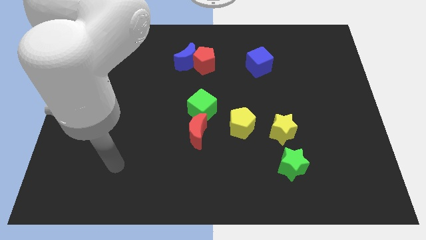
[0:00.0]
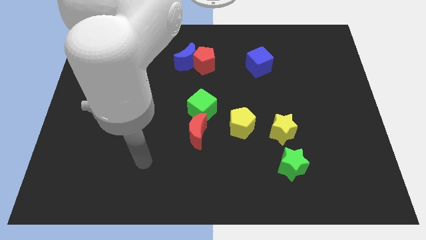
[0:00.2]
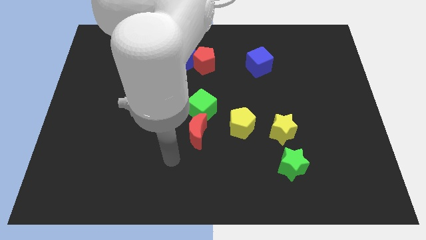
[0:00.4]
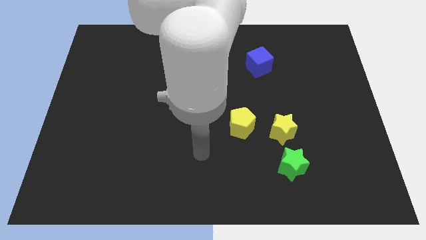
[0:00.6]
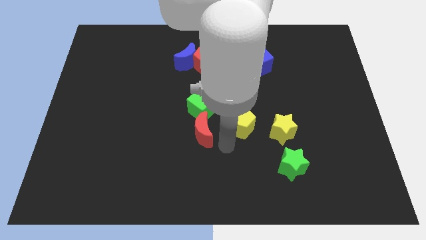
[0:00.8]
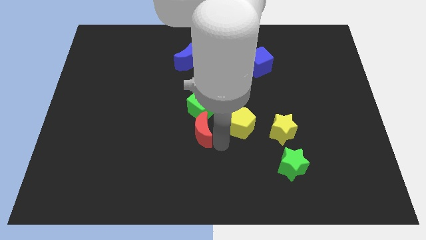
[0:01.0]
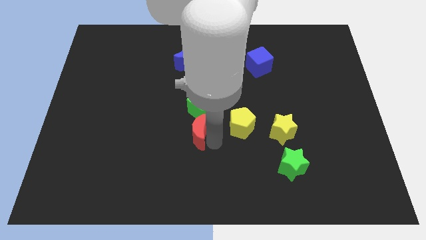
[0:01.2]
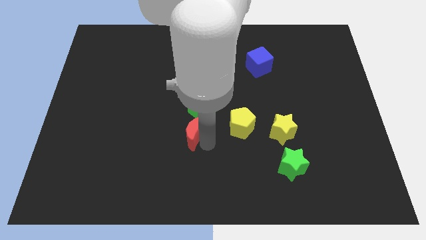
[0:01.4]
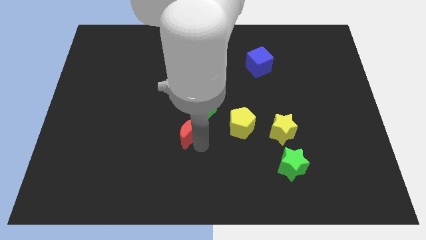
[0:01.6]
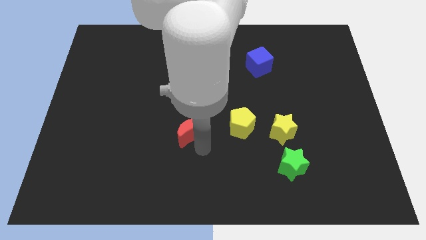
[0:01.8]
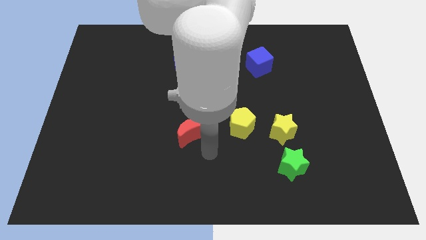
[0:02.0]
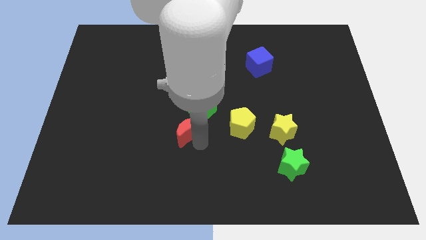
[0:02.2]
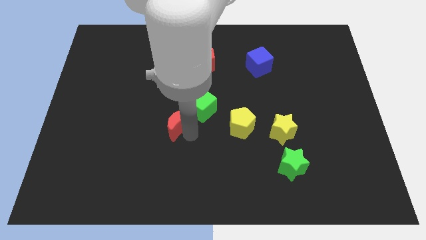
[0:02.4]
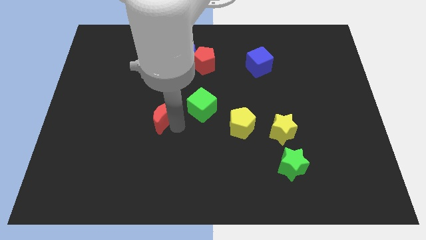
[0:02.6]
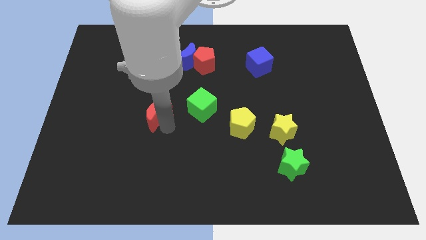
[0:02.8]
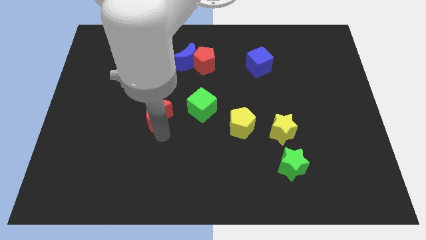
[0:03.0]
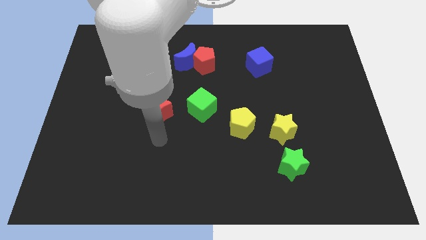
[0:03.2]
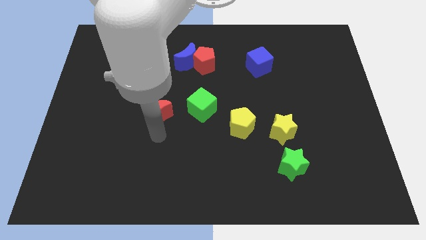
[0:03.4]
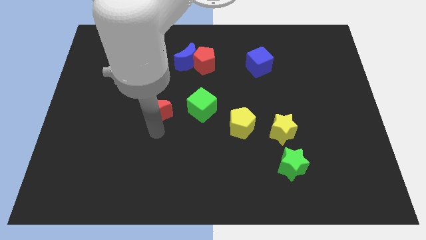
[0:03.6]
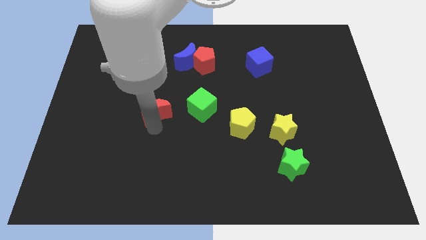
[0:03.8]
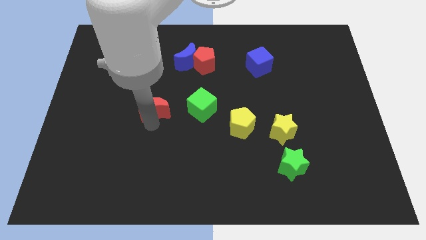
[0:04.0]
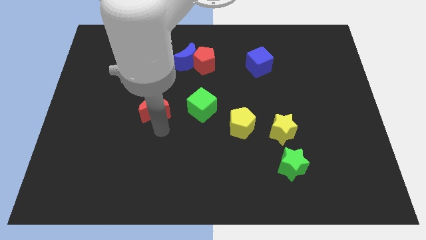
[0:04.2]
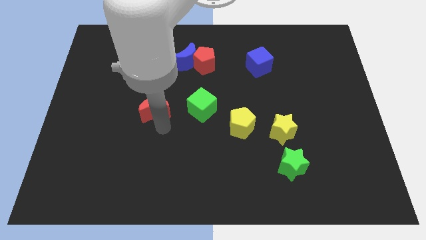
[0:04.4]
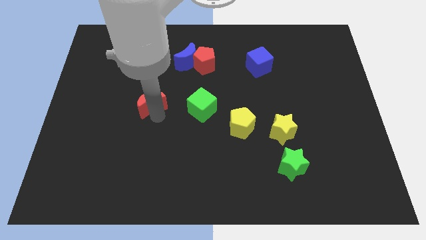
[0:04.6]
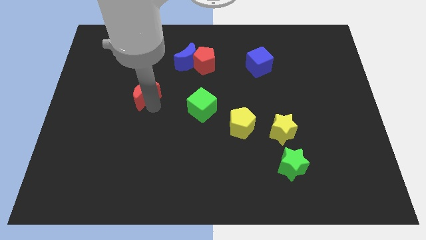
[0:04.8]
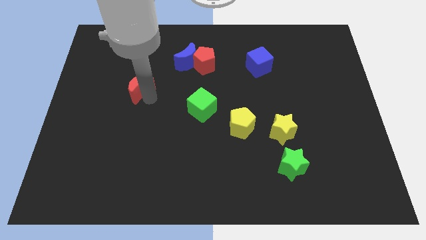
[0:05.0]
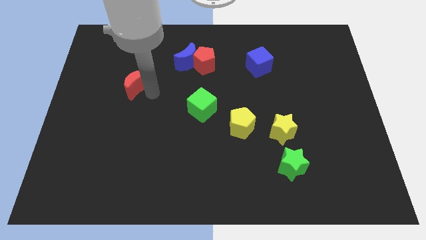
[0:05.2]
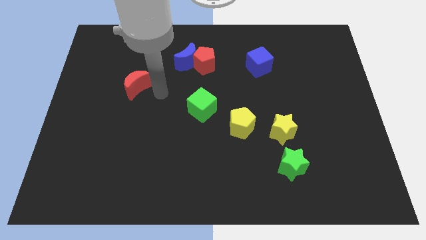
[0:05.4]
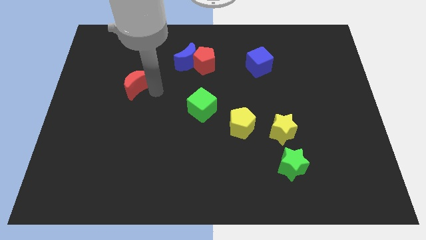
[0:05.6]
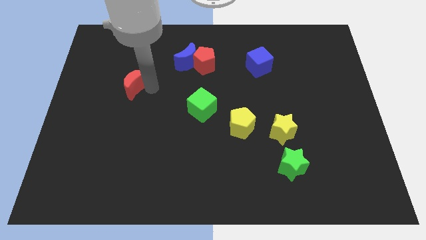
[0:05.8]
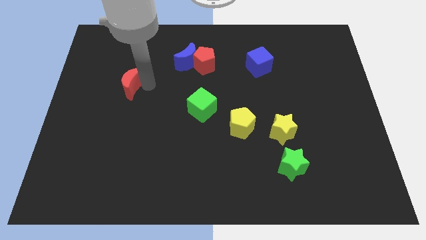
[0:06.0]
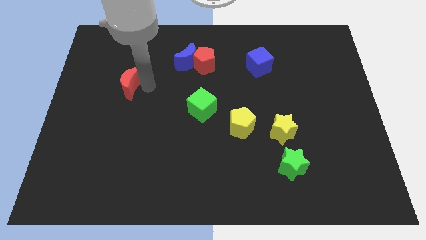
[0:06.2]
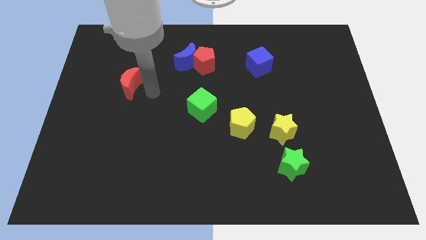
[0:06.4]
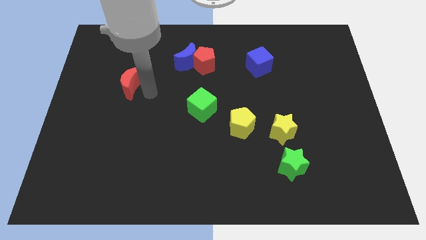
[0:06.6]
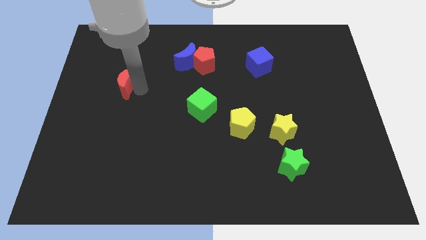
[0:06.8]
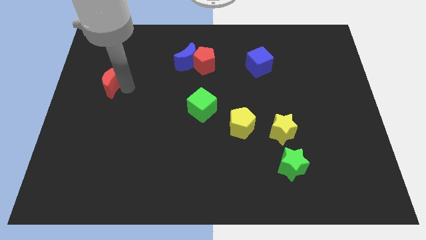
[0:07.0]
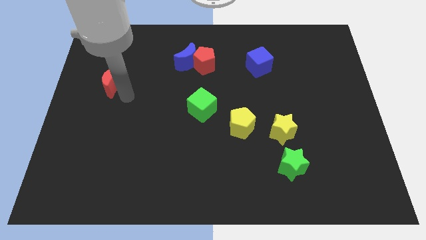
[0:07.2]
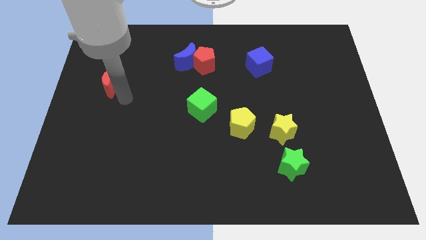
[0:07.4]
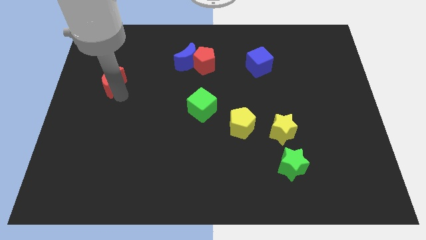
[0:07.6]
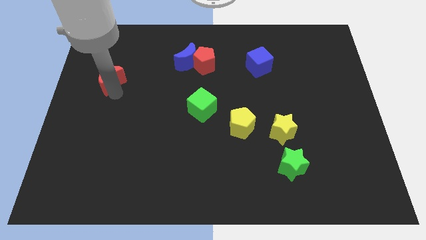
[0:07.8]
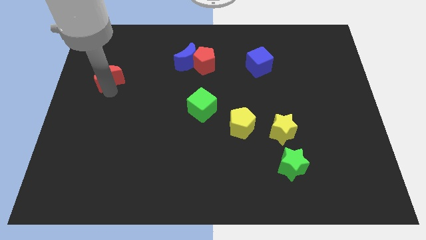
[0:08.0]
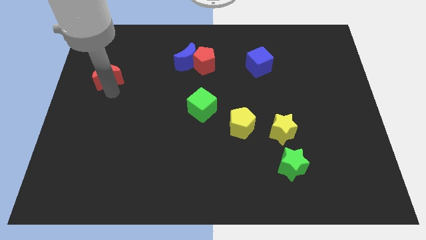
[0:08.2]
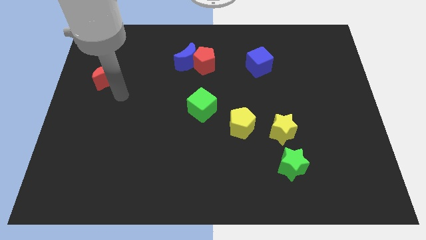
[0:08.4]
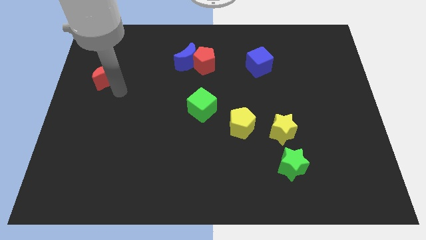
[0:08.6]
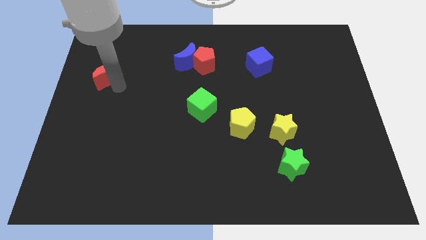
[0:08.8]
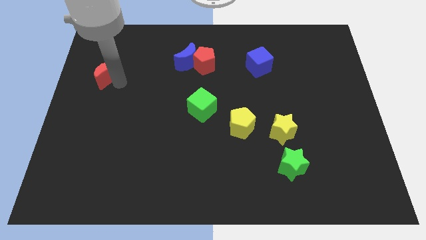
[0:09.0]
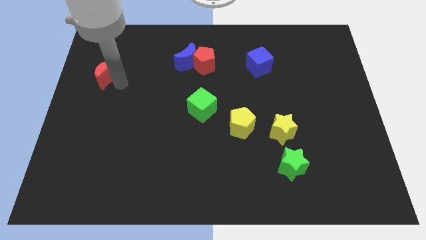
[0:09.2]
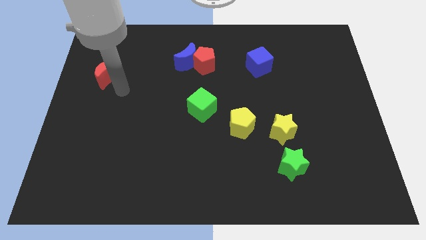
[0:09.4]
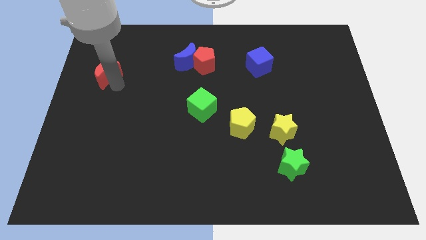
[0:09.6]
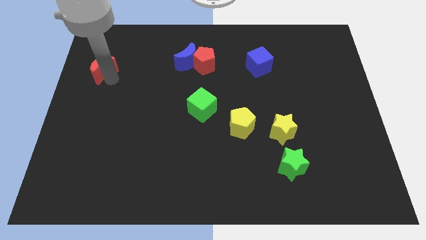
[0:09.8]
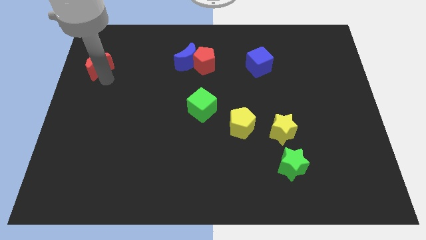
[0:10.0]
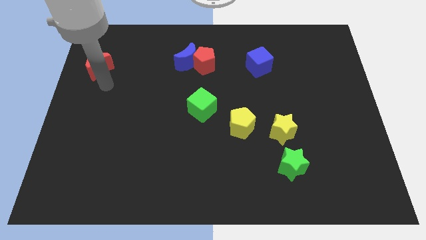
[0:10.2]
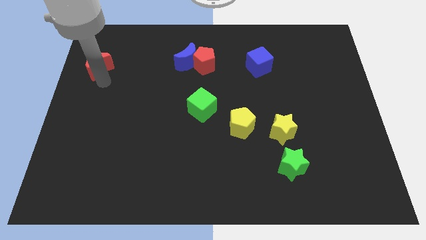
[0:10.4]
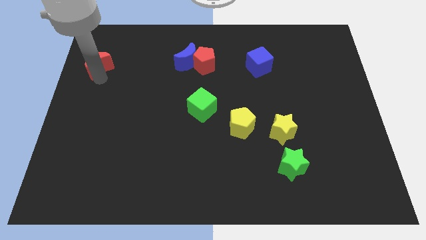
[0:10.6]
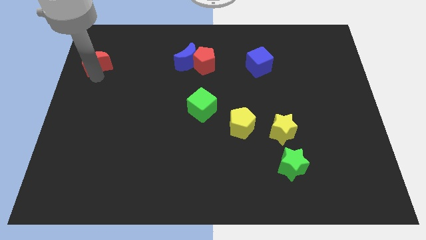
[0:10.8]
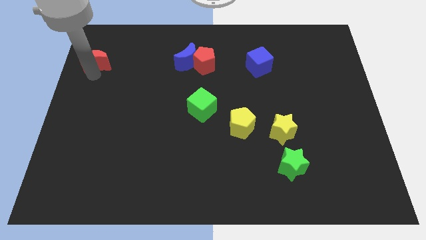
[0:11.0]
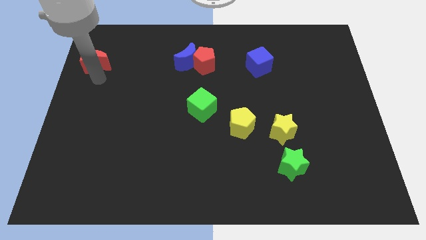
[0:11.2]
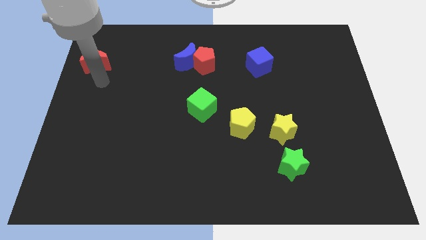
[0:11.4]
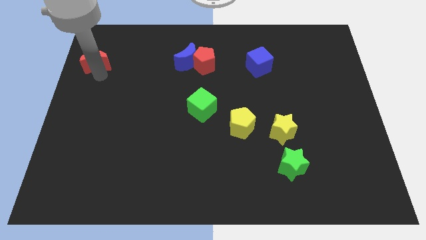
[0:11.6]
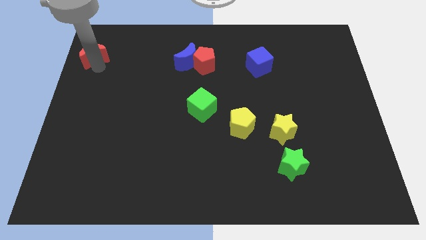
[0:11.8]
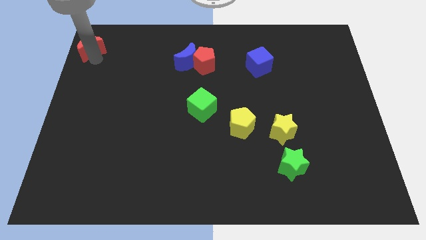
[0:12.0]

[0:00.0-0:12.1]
move the red moon to the top left of the board

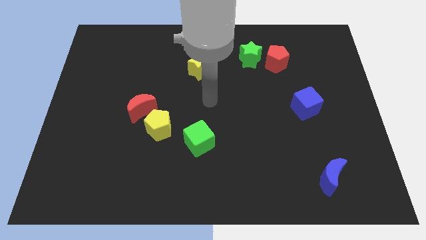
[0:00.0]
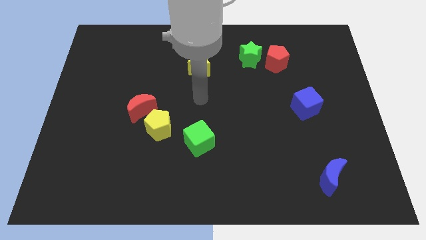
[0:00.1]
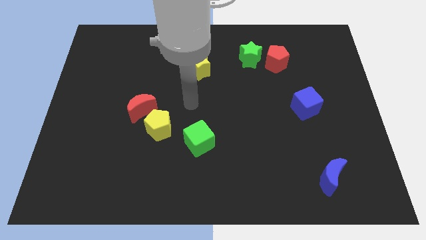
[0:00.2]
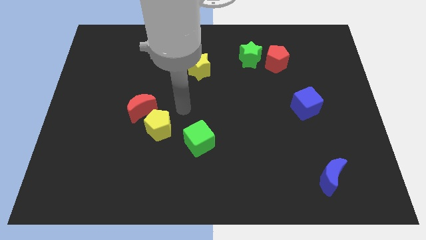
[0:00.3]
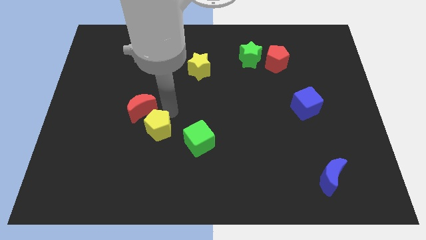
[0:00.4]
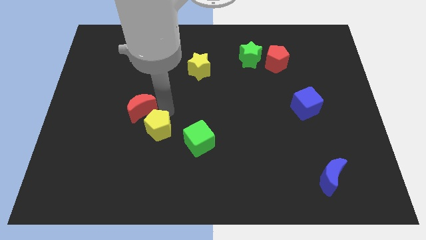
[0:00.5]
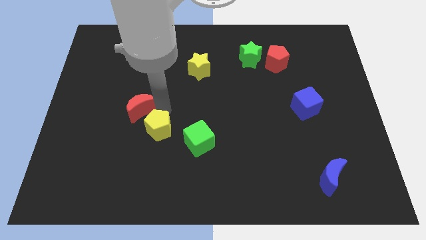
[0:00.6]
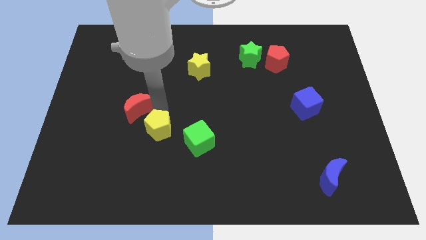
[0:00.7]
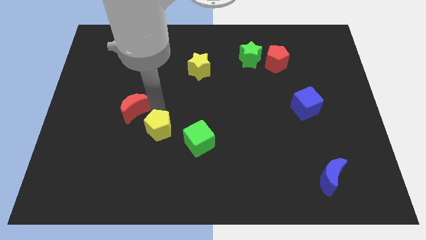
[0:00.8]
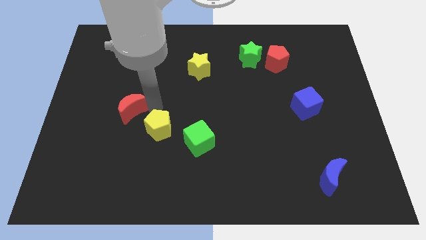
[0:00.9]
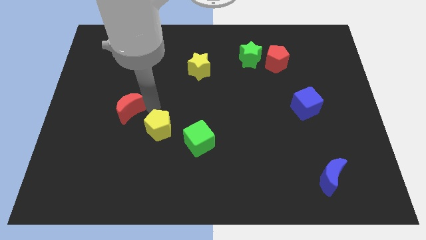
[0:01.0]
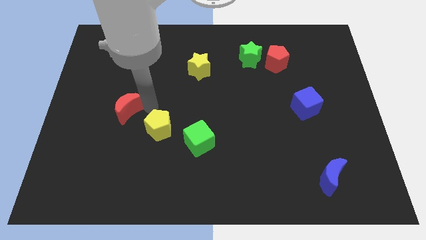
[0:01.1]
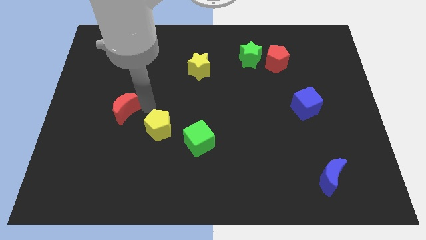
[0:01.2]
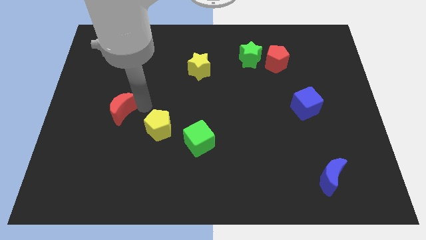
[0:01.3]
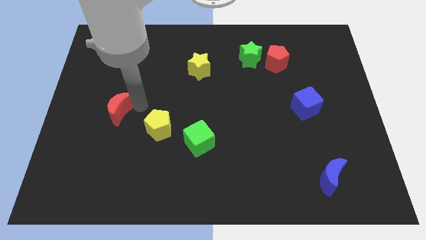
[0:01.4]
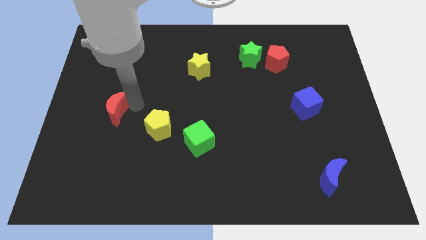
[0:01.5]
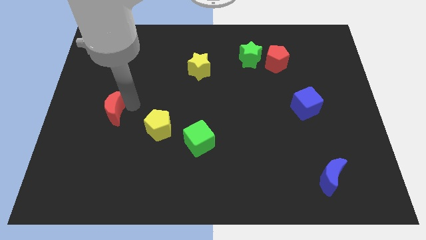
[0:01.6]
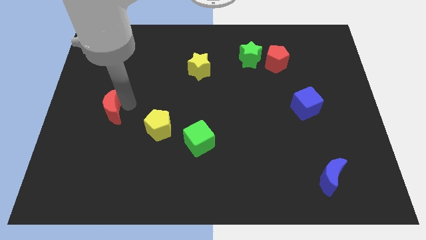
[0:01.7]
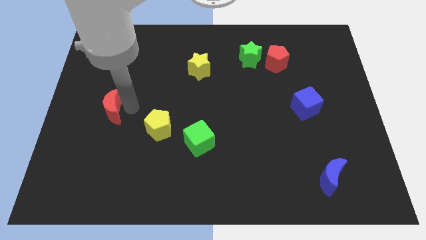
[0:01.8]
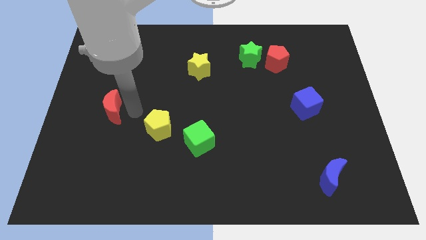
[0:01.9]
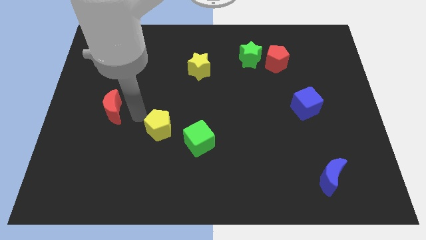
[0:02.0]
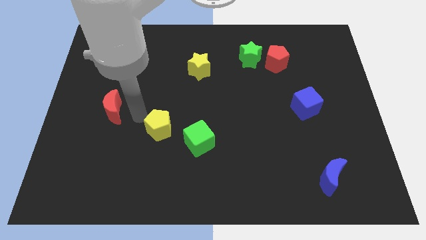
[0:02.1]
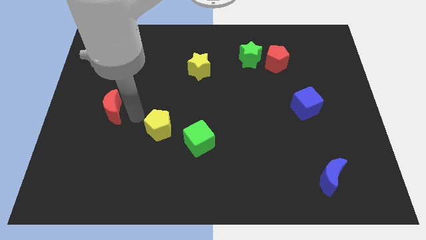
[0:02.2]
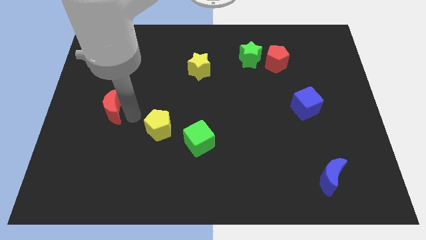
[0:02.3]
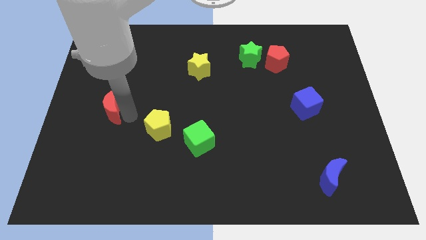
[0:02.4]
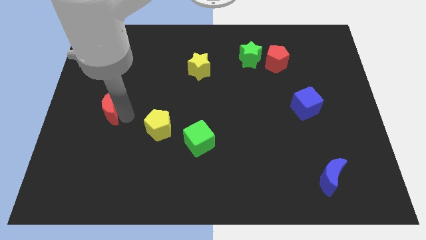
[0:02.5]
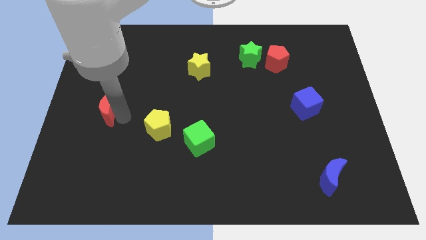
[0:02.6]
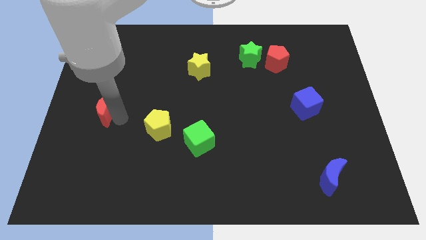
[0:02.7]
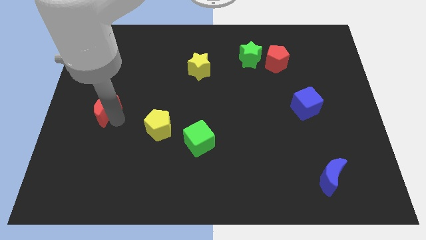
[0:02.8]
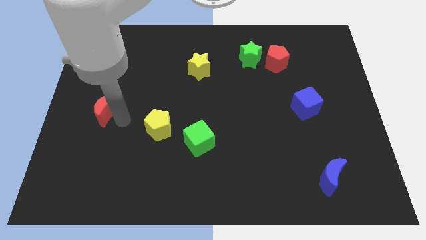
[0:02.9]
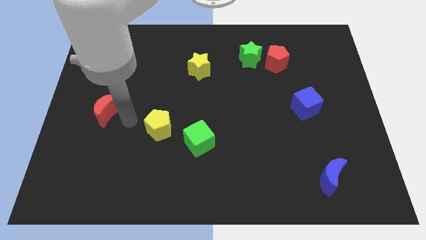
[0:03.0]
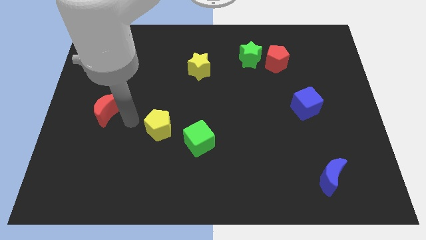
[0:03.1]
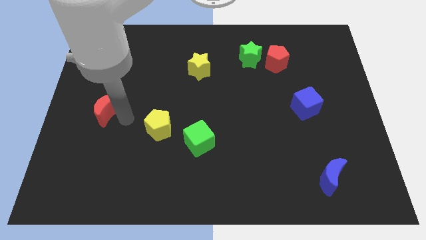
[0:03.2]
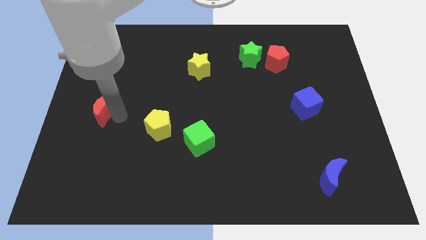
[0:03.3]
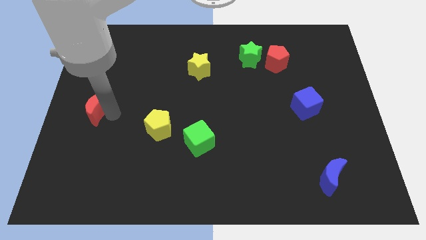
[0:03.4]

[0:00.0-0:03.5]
push the red moon to the left side of the board
